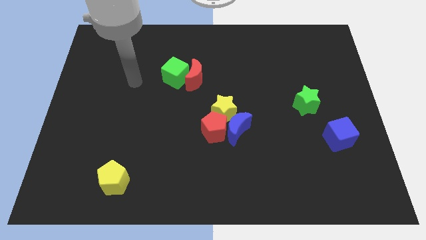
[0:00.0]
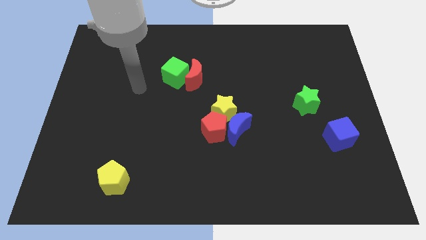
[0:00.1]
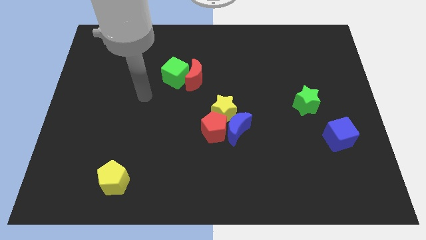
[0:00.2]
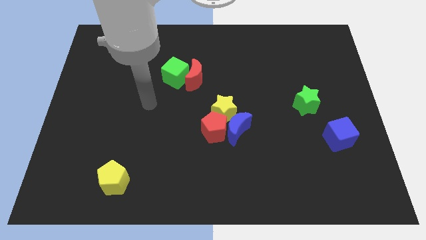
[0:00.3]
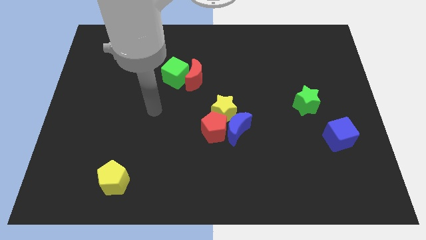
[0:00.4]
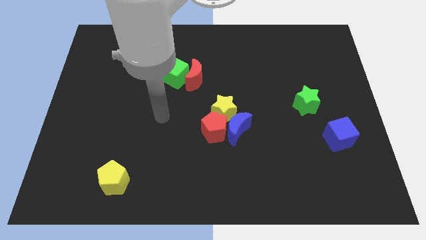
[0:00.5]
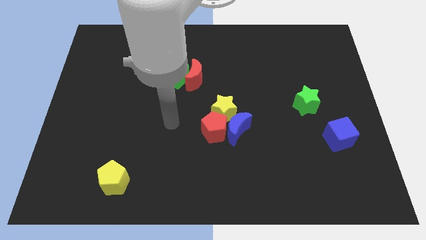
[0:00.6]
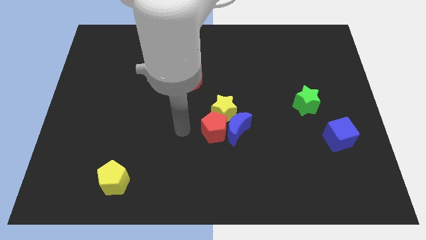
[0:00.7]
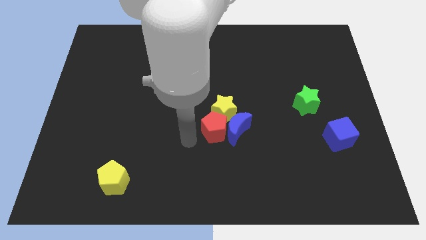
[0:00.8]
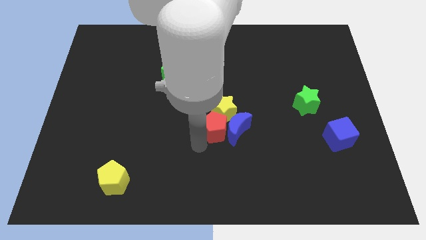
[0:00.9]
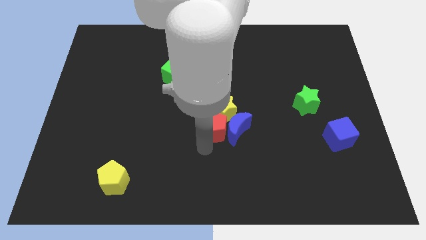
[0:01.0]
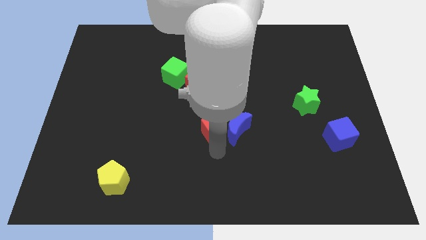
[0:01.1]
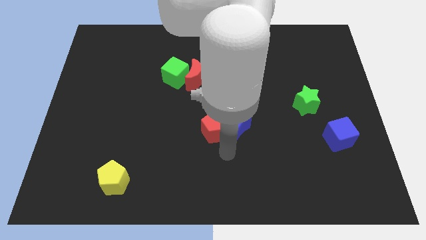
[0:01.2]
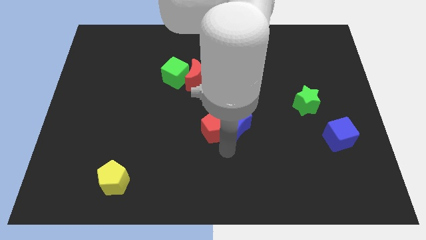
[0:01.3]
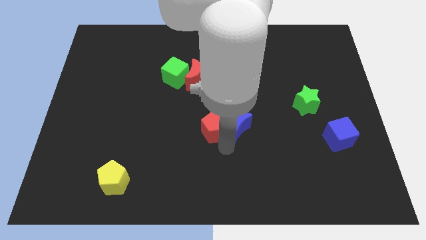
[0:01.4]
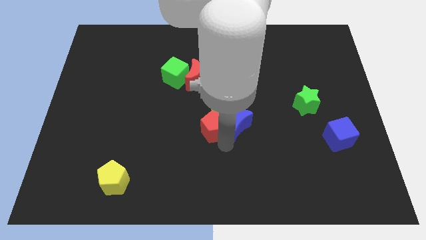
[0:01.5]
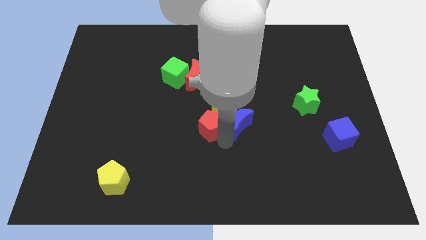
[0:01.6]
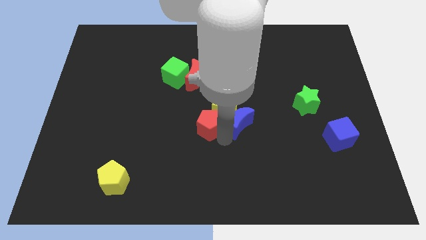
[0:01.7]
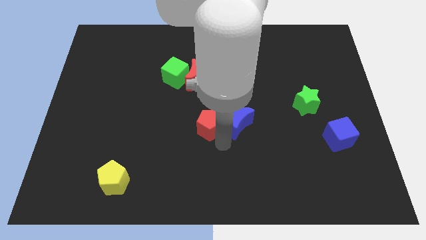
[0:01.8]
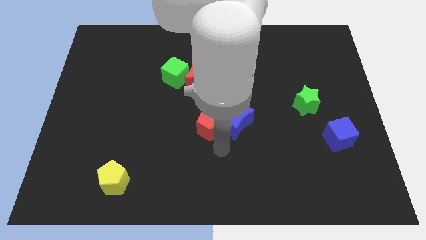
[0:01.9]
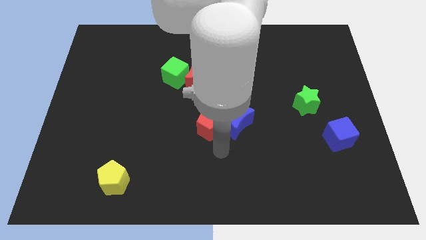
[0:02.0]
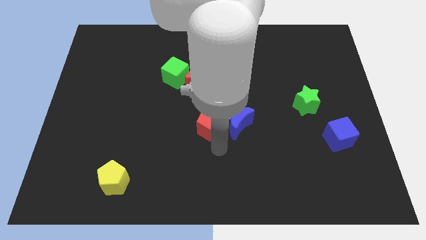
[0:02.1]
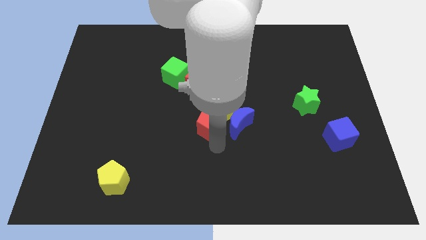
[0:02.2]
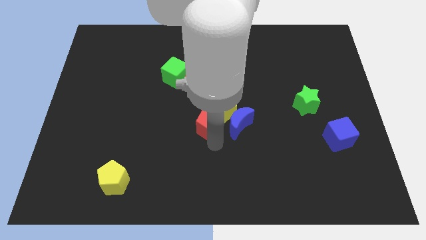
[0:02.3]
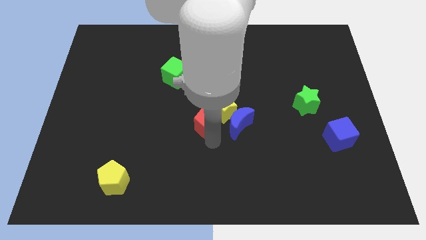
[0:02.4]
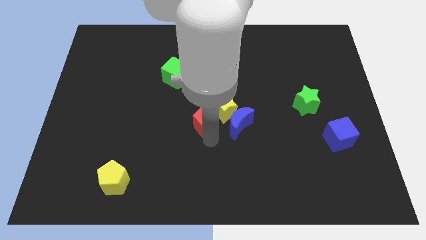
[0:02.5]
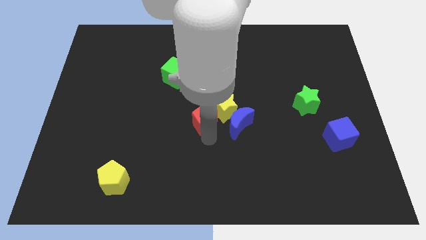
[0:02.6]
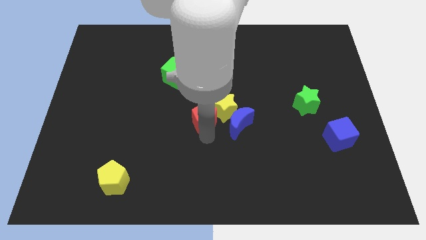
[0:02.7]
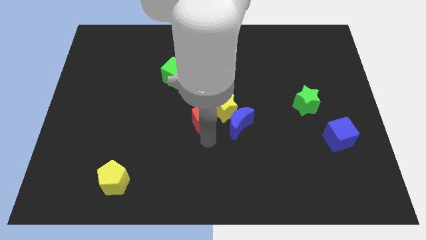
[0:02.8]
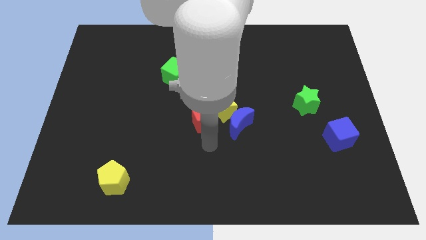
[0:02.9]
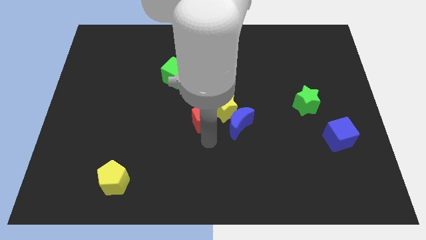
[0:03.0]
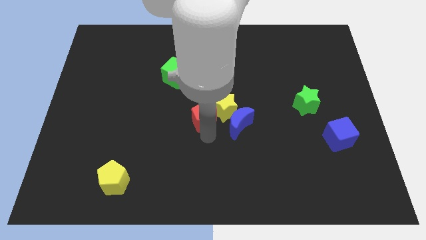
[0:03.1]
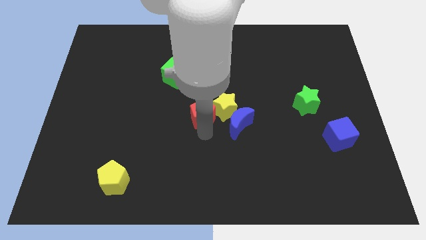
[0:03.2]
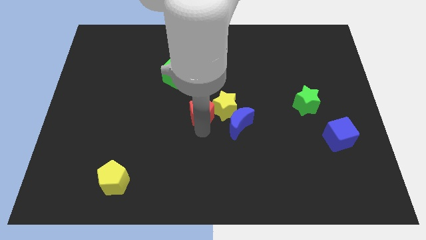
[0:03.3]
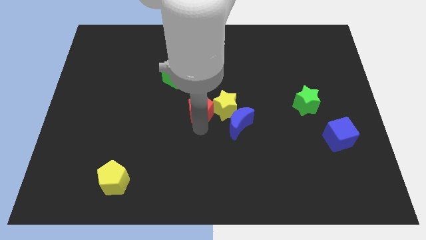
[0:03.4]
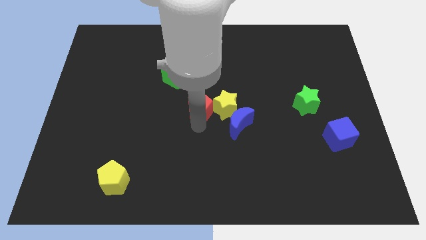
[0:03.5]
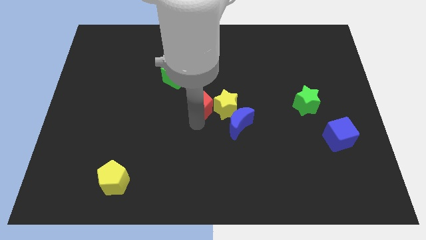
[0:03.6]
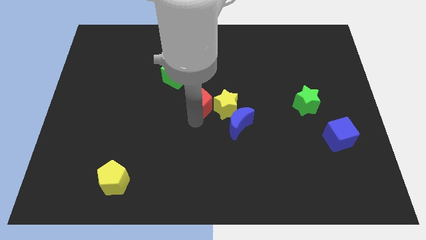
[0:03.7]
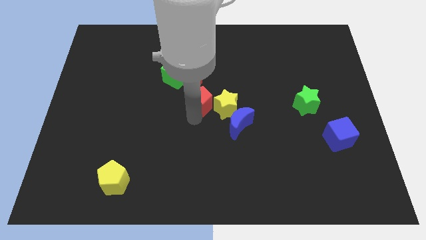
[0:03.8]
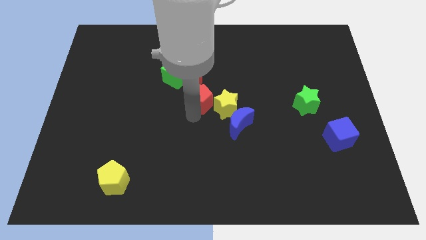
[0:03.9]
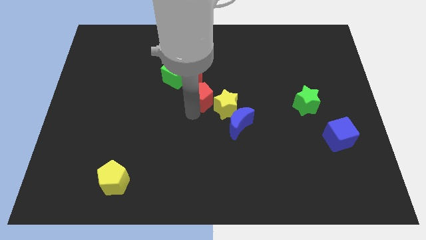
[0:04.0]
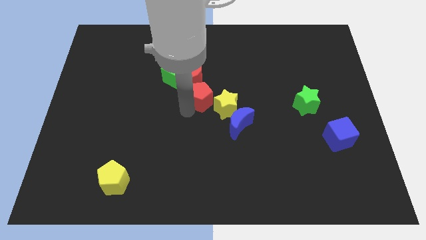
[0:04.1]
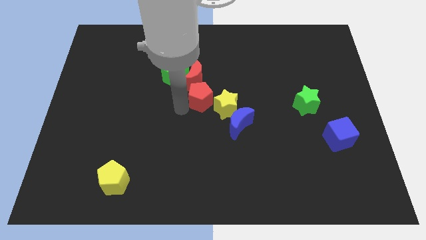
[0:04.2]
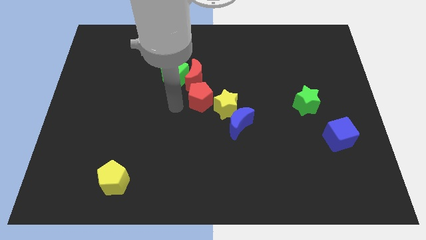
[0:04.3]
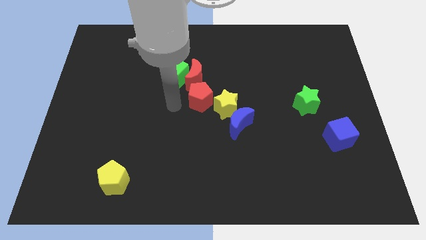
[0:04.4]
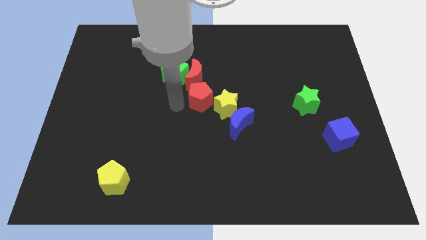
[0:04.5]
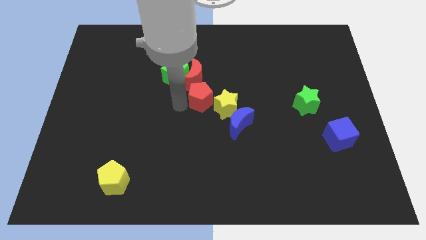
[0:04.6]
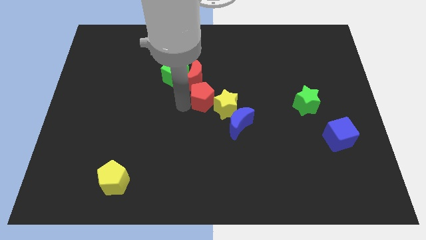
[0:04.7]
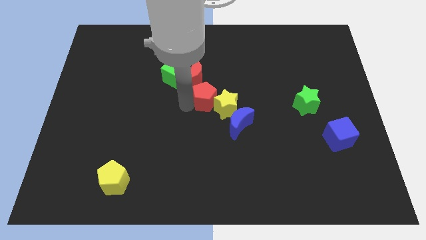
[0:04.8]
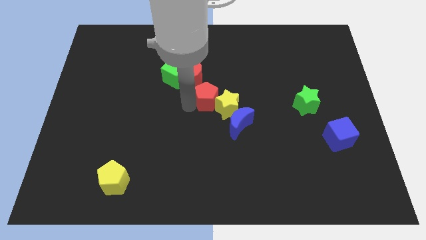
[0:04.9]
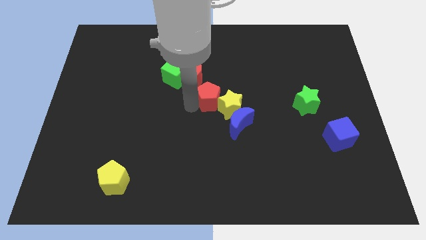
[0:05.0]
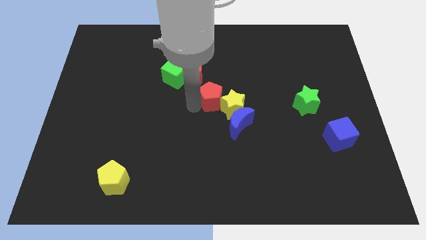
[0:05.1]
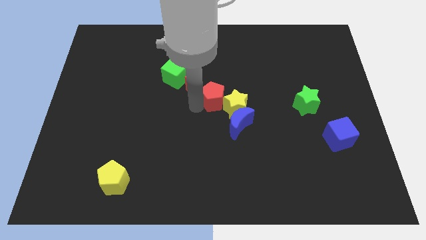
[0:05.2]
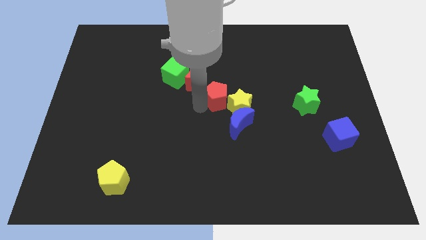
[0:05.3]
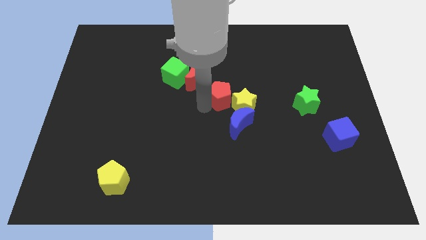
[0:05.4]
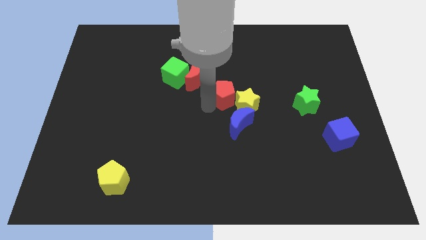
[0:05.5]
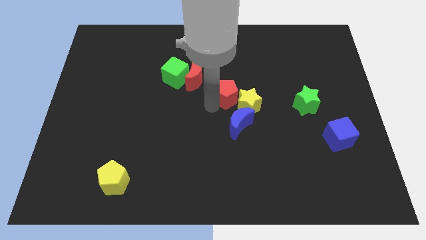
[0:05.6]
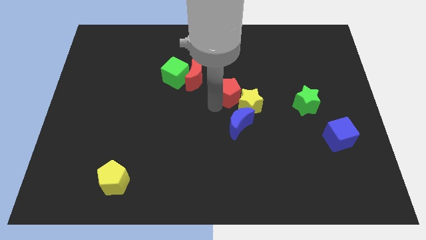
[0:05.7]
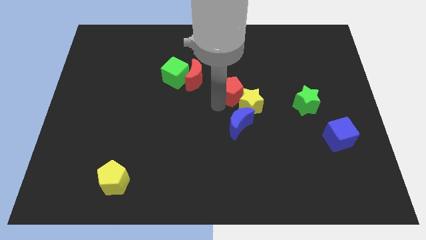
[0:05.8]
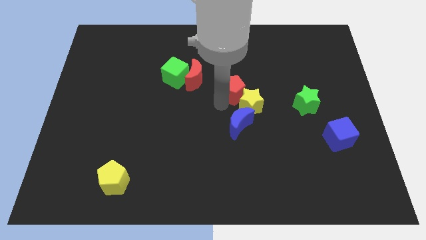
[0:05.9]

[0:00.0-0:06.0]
slide the red pentagon to the right side of the red moon

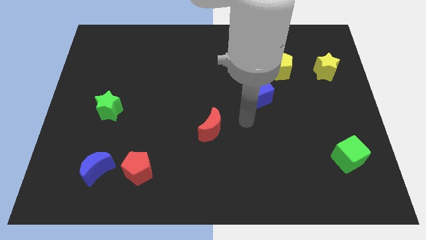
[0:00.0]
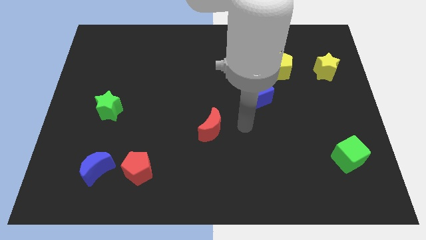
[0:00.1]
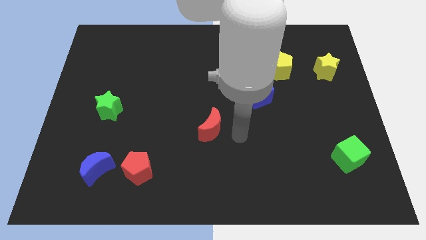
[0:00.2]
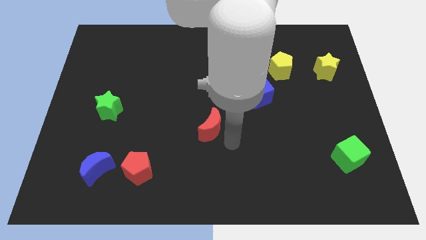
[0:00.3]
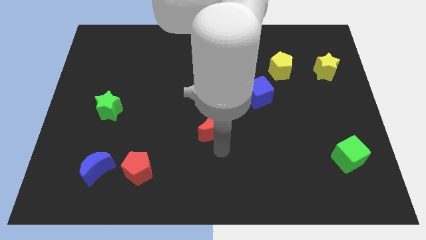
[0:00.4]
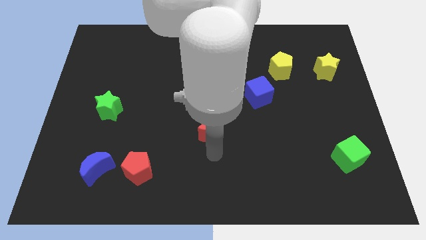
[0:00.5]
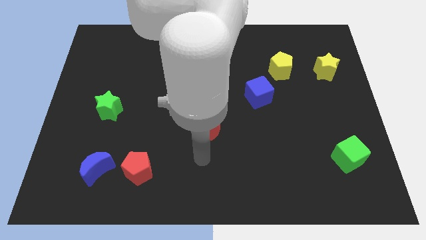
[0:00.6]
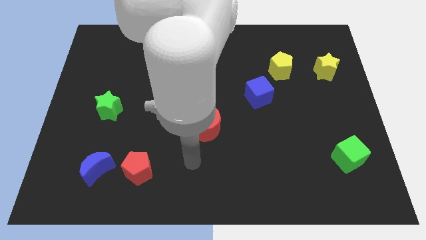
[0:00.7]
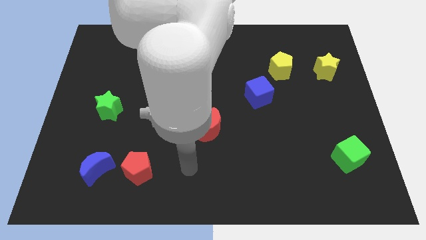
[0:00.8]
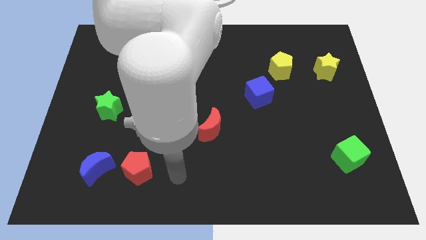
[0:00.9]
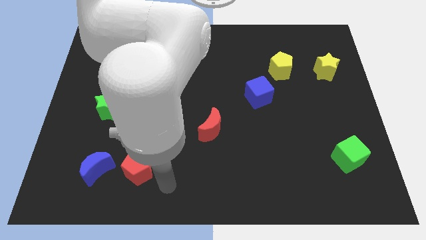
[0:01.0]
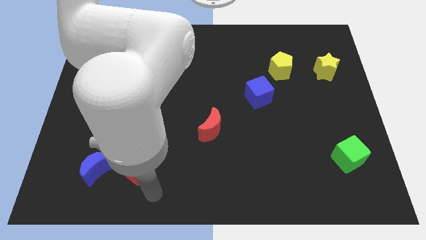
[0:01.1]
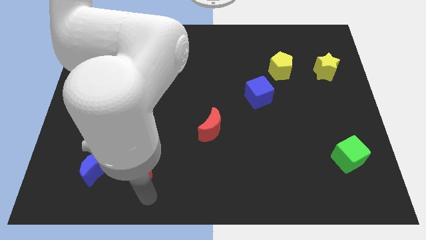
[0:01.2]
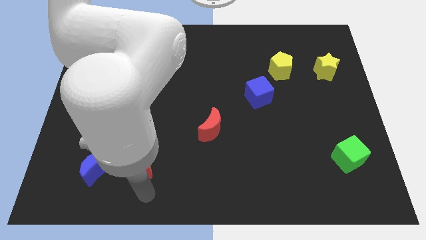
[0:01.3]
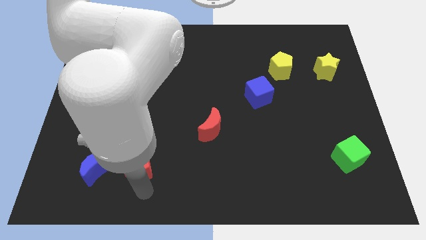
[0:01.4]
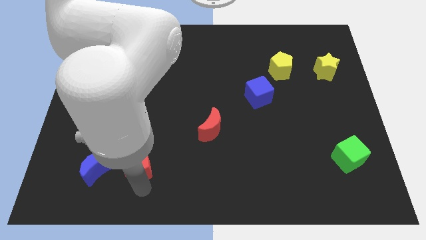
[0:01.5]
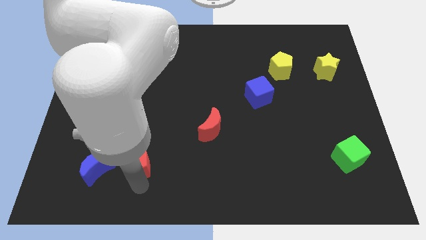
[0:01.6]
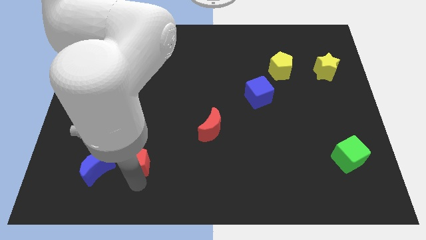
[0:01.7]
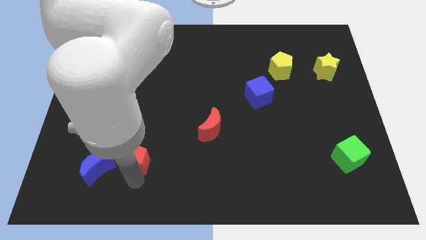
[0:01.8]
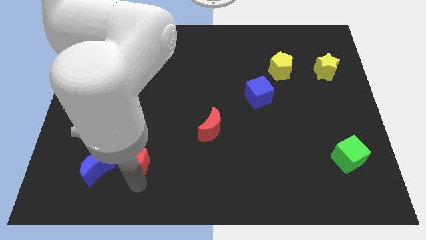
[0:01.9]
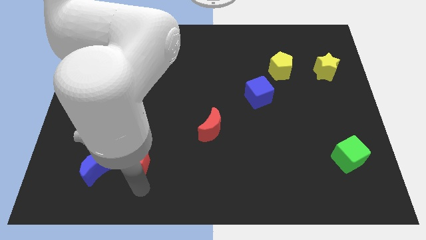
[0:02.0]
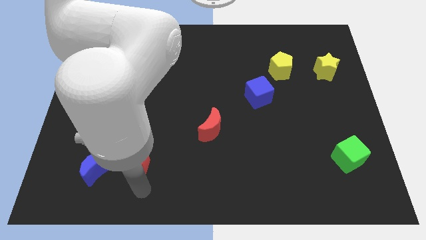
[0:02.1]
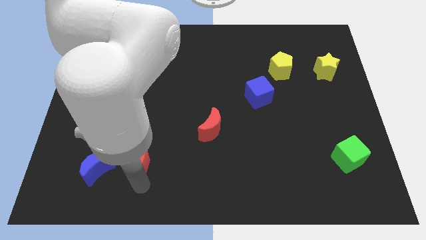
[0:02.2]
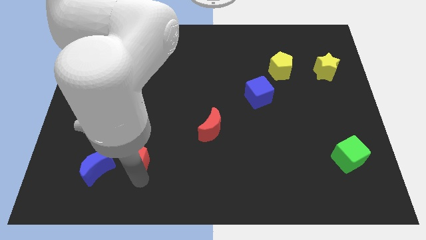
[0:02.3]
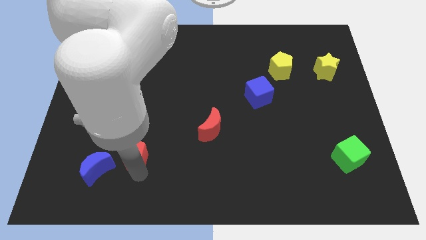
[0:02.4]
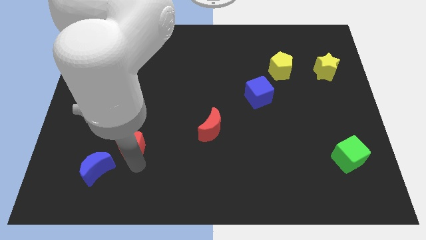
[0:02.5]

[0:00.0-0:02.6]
move the red pentagon to the bottom right side of the green star
